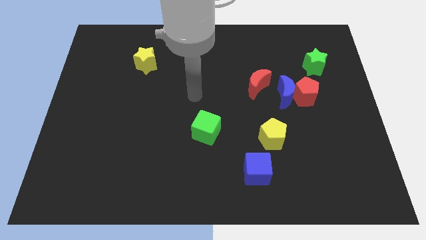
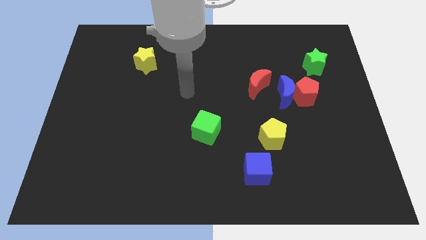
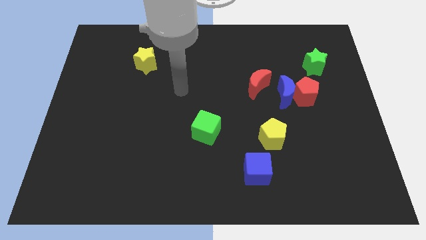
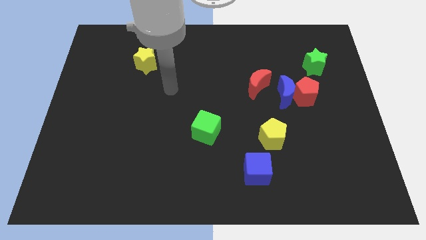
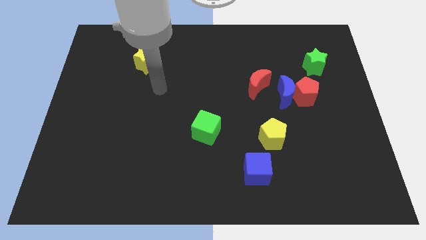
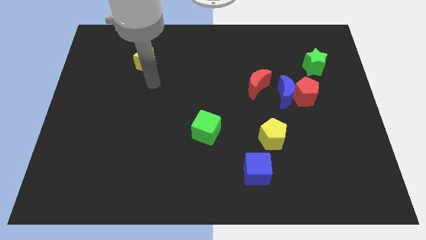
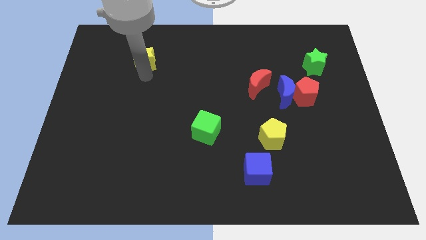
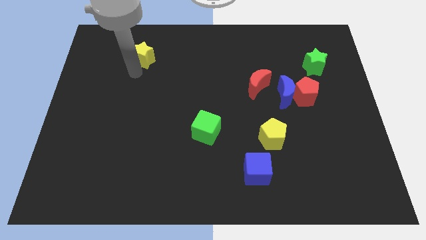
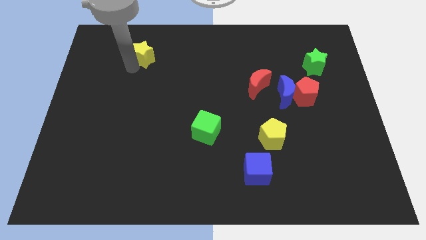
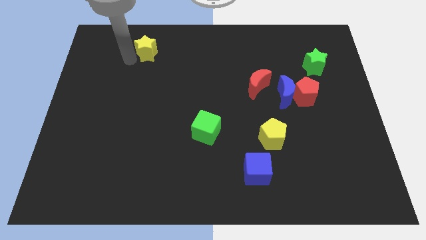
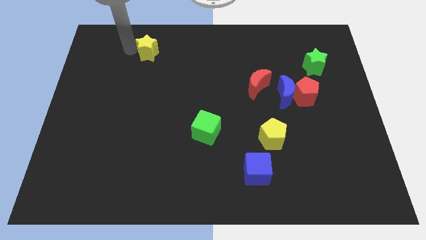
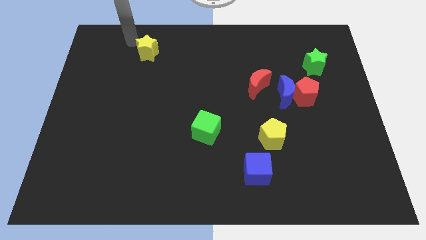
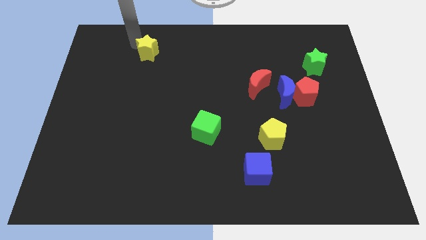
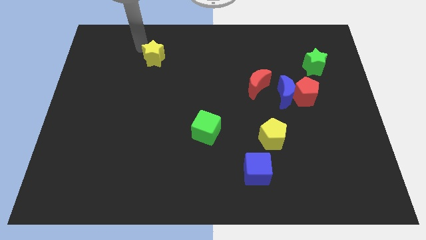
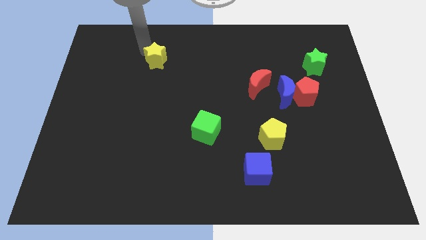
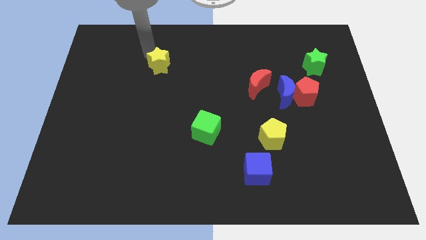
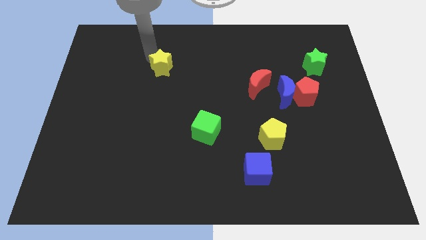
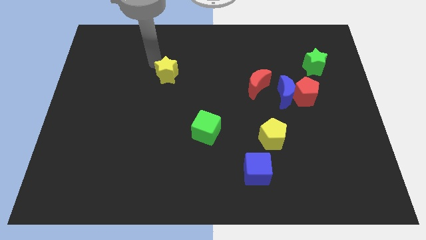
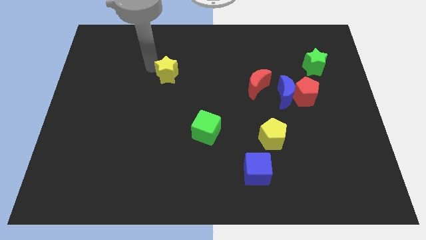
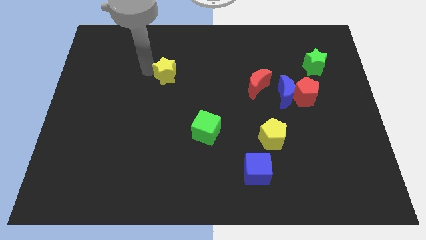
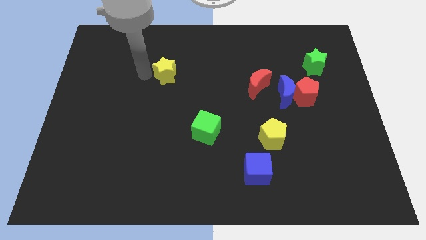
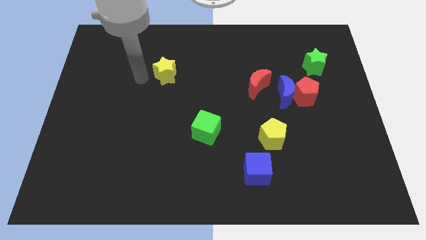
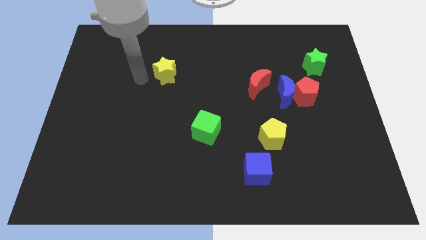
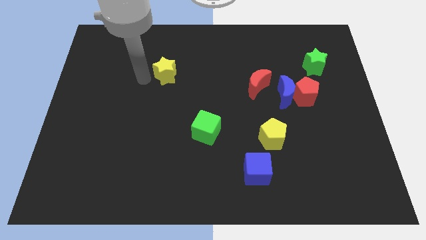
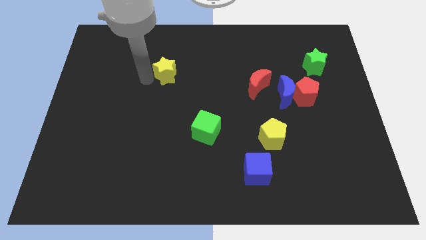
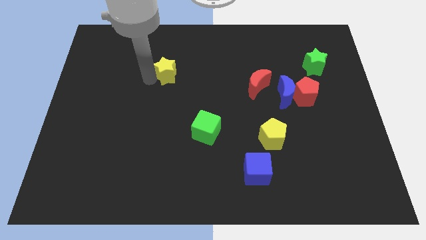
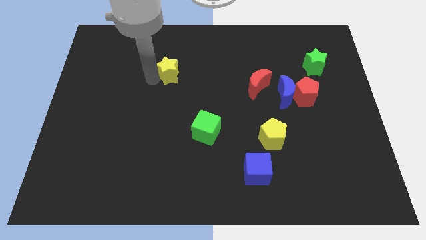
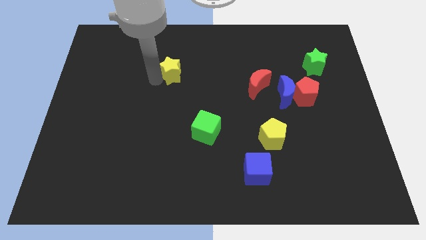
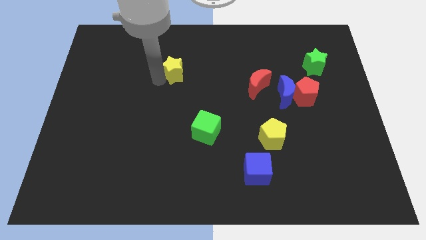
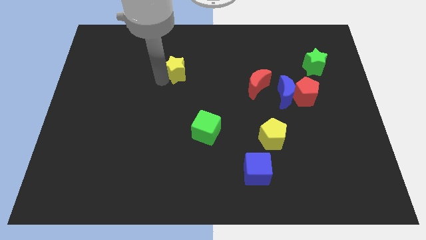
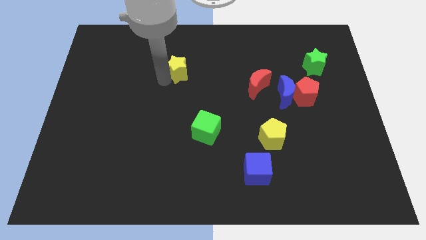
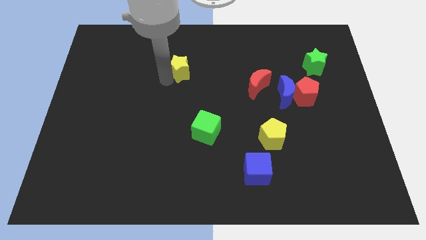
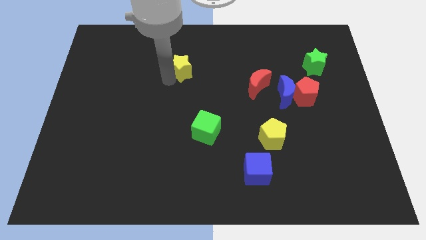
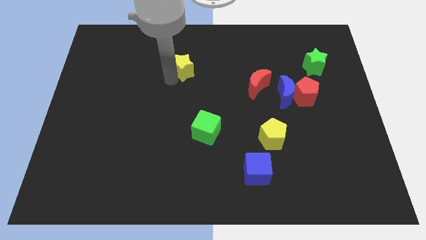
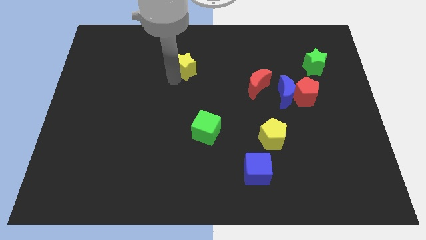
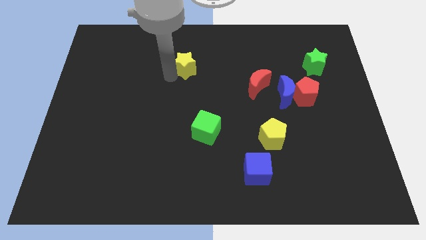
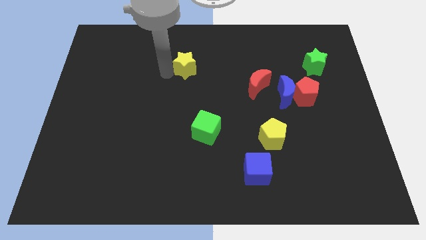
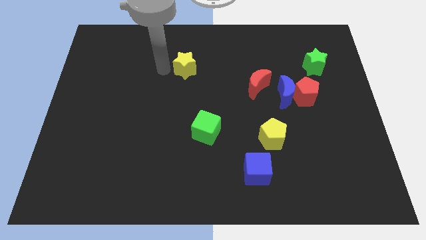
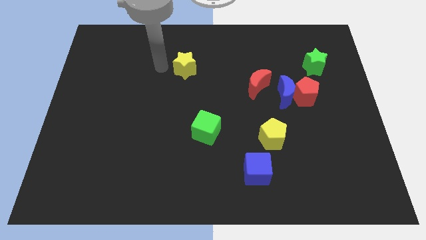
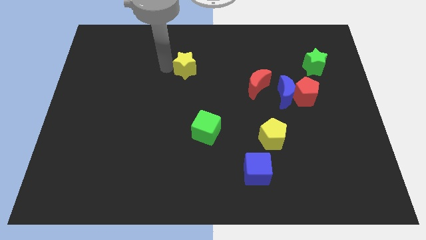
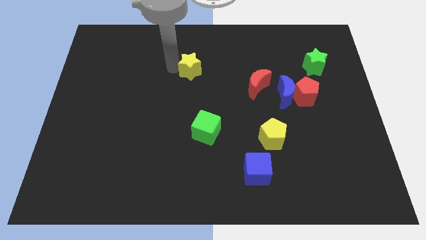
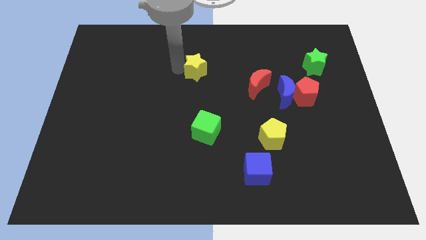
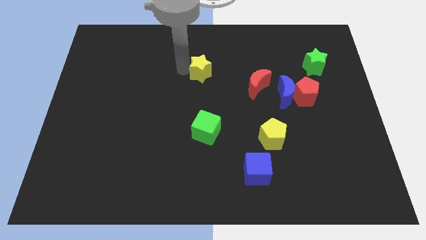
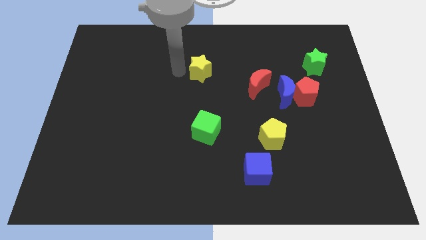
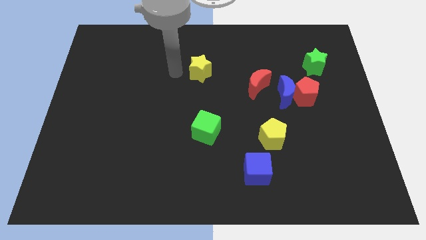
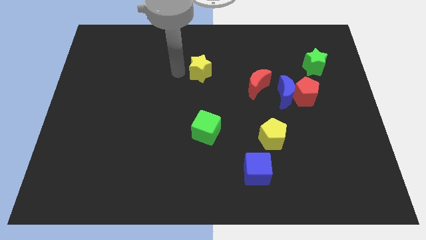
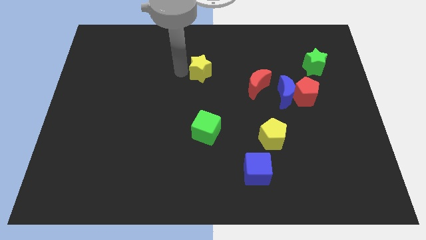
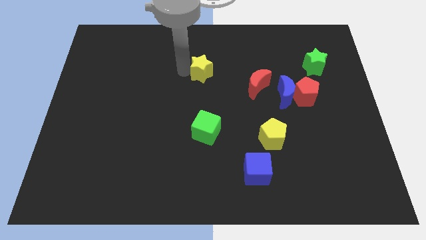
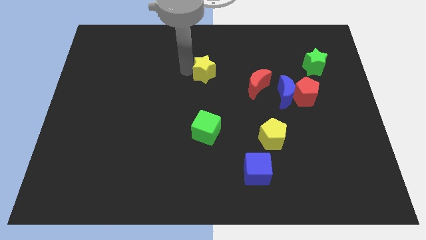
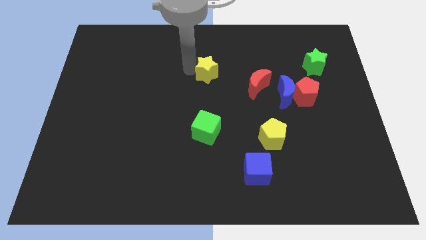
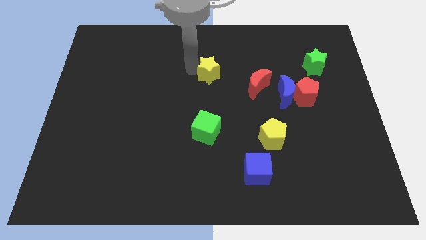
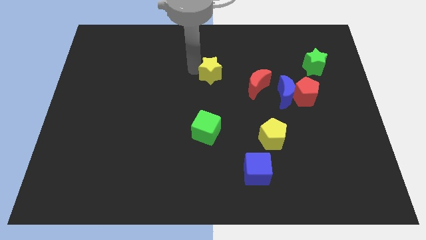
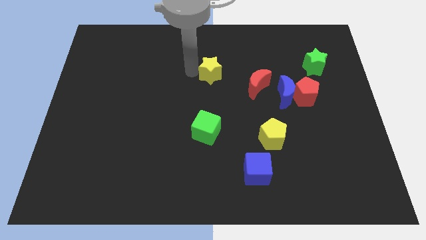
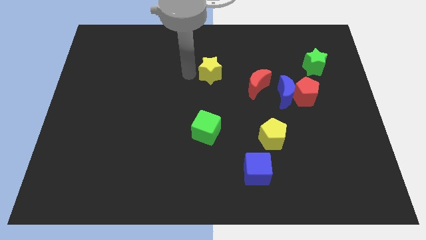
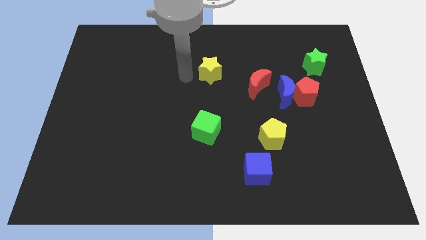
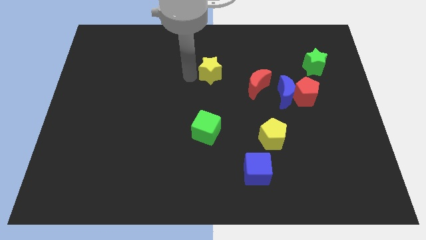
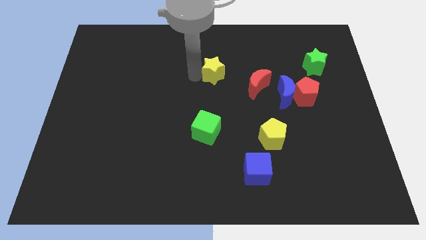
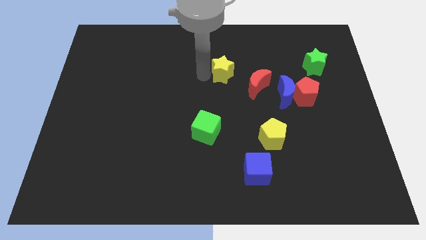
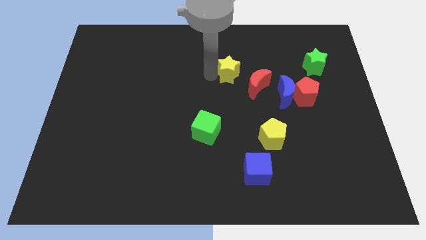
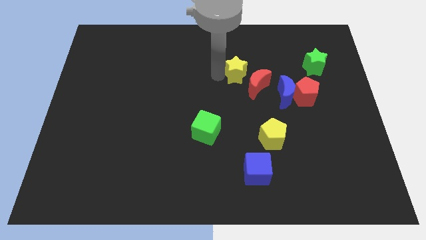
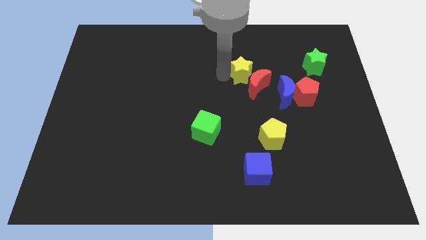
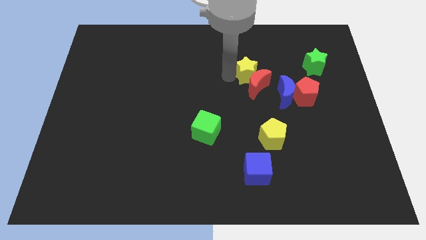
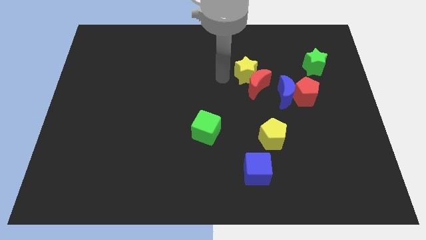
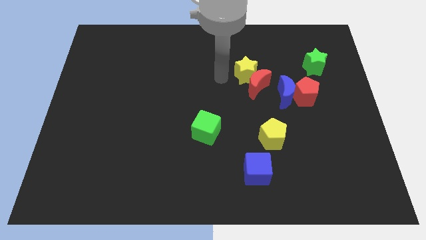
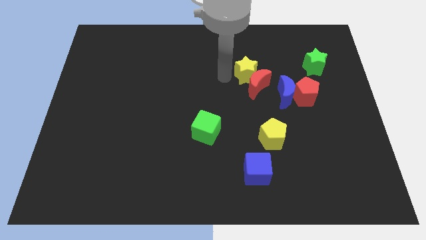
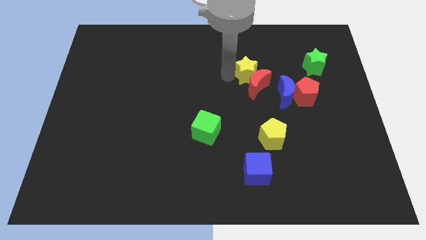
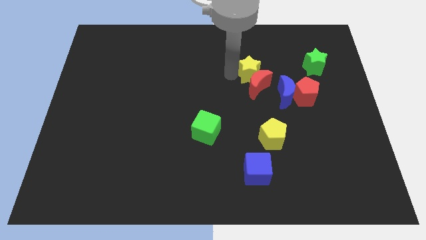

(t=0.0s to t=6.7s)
move the yellow star to the top right of the red moon
